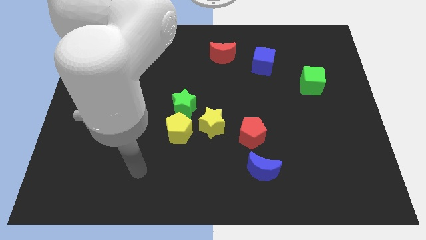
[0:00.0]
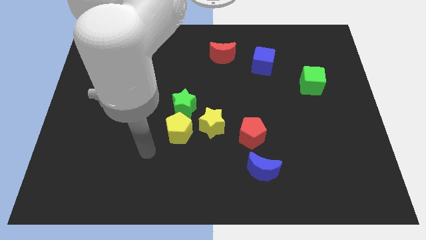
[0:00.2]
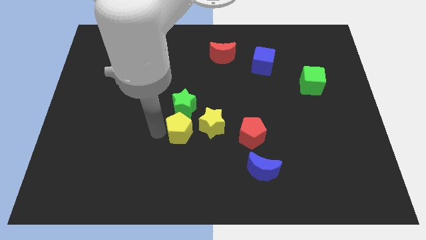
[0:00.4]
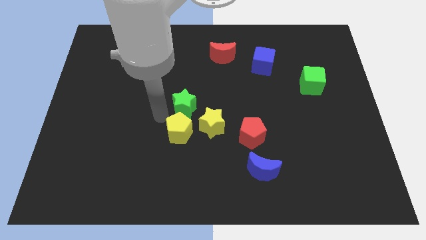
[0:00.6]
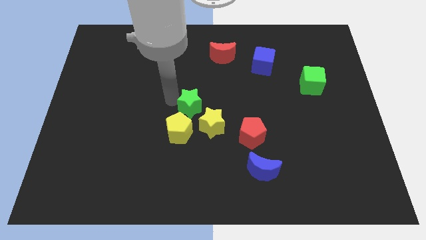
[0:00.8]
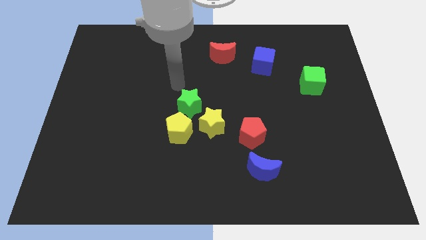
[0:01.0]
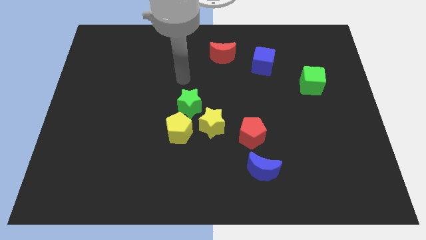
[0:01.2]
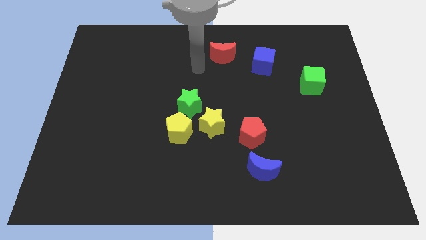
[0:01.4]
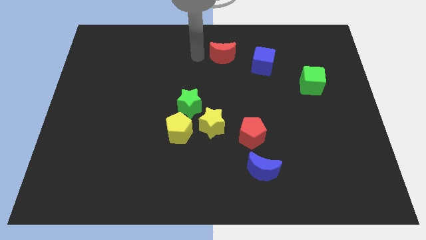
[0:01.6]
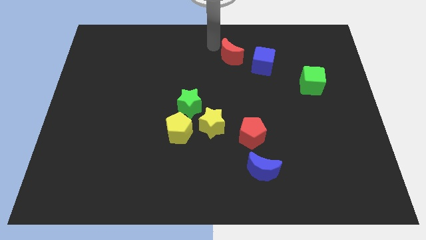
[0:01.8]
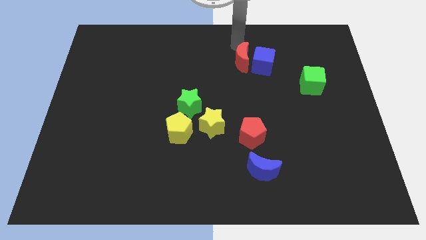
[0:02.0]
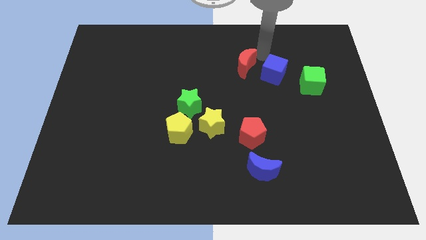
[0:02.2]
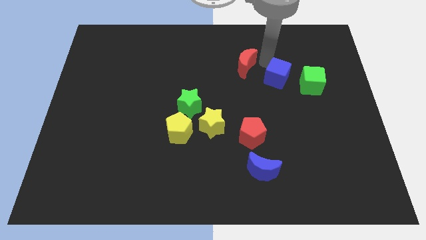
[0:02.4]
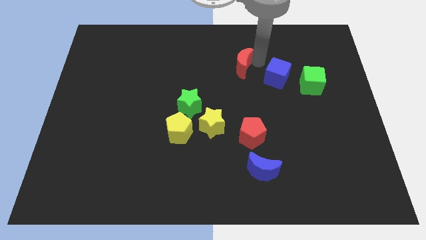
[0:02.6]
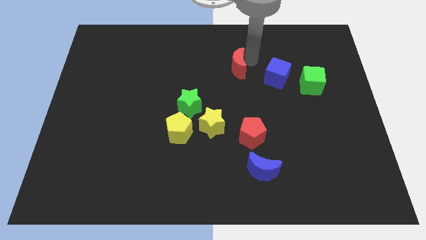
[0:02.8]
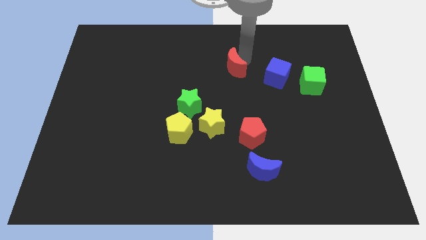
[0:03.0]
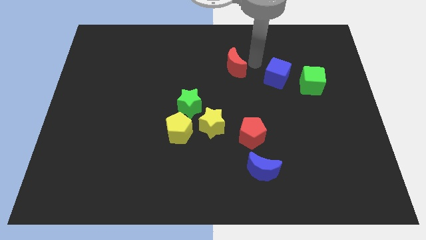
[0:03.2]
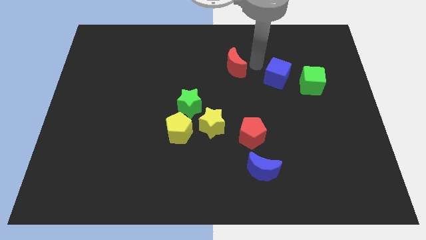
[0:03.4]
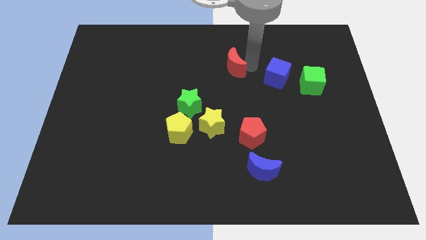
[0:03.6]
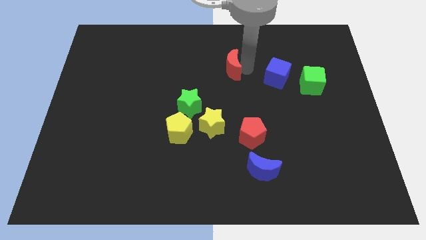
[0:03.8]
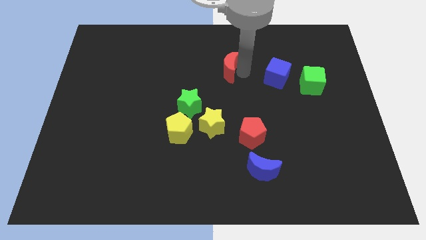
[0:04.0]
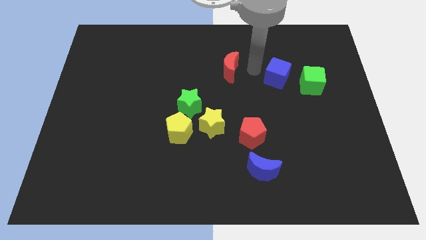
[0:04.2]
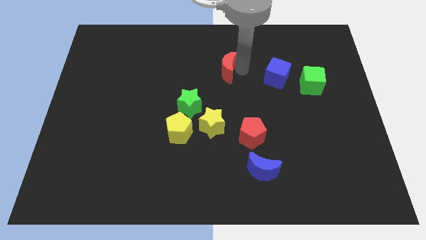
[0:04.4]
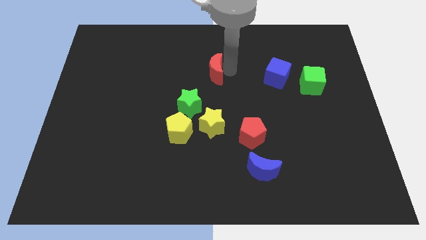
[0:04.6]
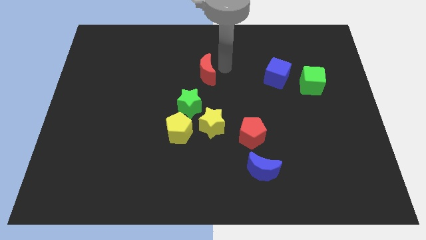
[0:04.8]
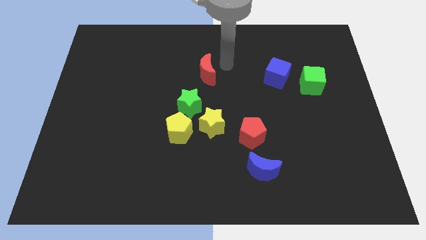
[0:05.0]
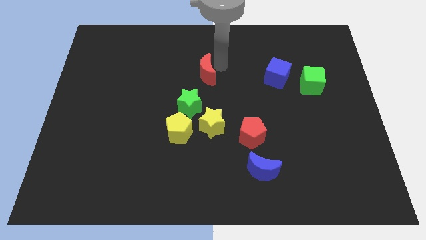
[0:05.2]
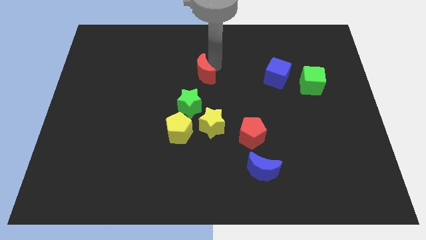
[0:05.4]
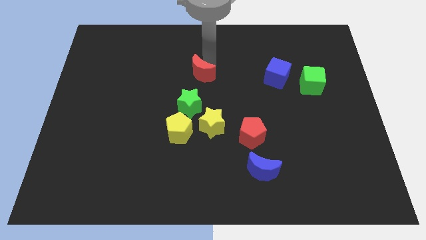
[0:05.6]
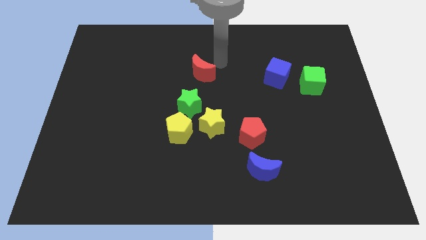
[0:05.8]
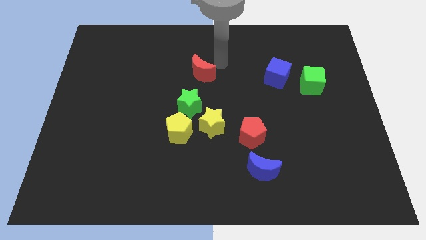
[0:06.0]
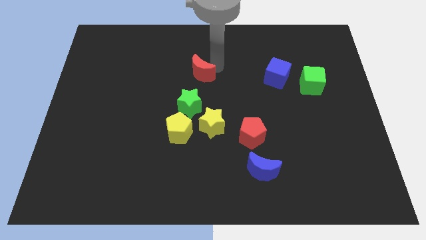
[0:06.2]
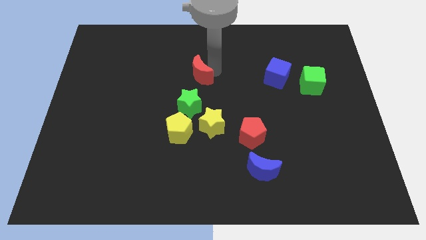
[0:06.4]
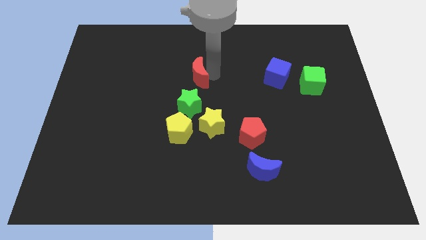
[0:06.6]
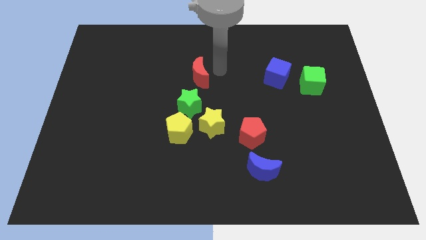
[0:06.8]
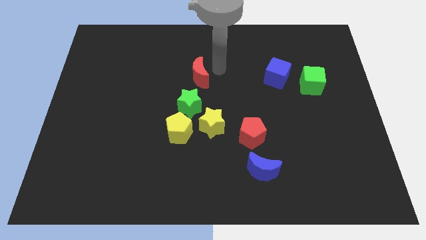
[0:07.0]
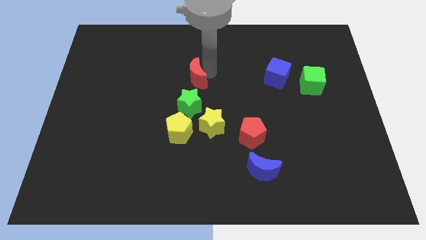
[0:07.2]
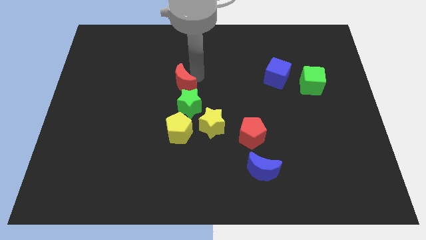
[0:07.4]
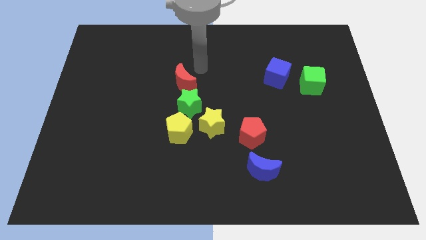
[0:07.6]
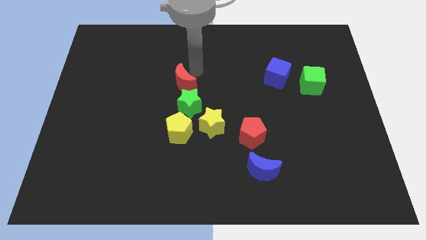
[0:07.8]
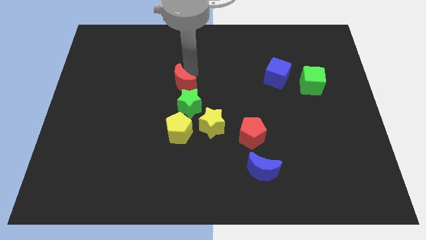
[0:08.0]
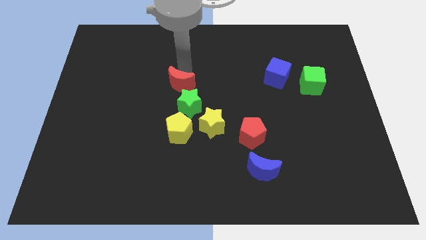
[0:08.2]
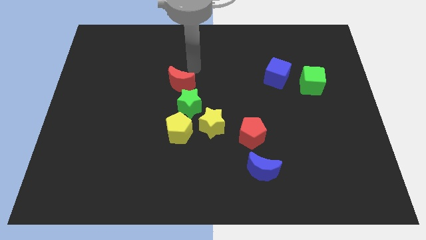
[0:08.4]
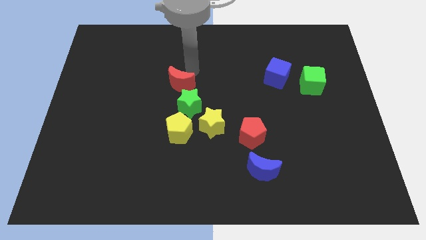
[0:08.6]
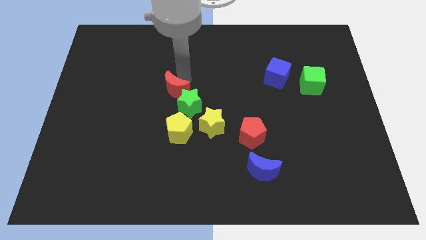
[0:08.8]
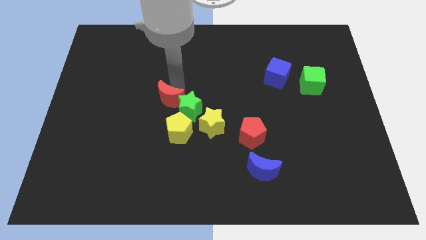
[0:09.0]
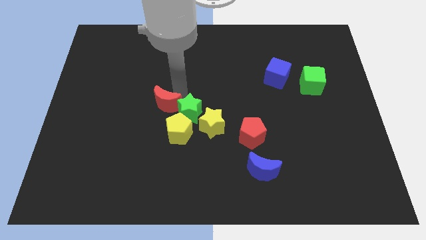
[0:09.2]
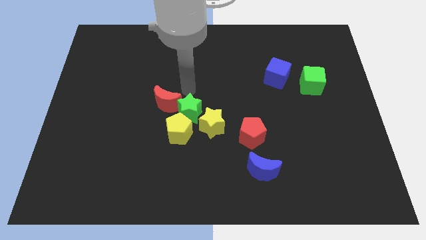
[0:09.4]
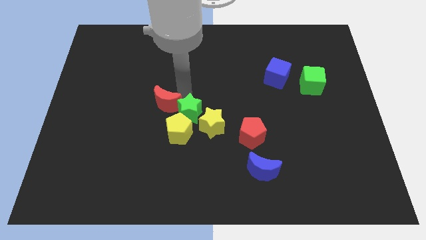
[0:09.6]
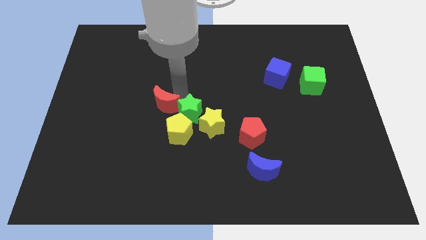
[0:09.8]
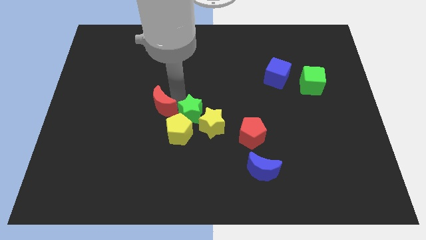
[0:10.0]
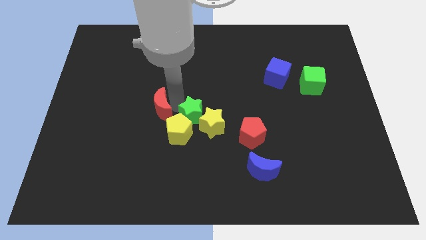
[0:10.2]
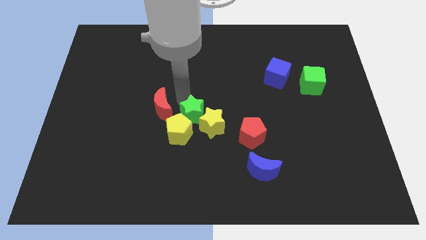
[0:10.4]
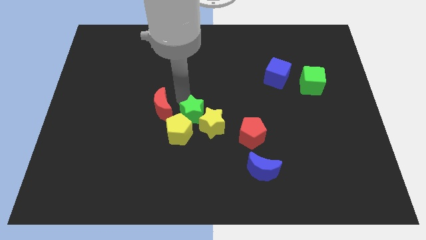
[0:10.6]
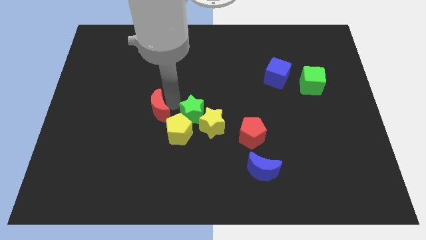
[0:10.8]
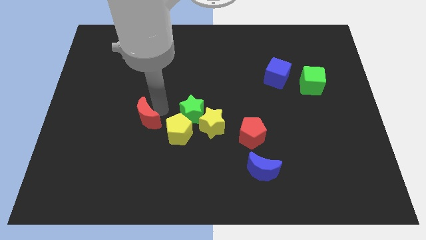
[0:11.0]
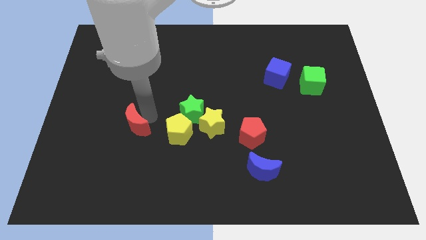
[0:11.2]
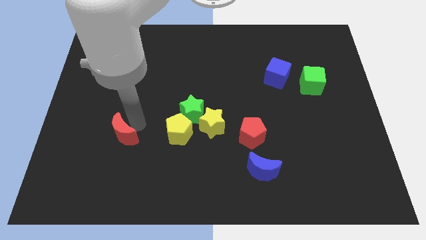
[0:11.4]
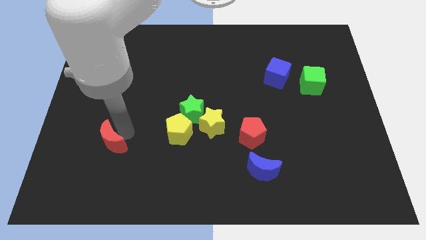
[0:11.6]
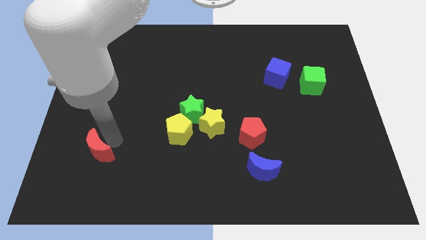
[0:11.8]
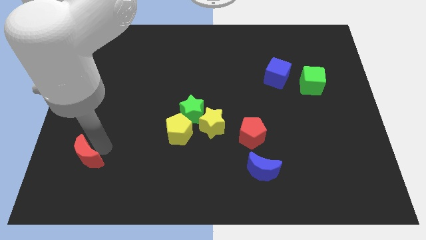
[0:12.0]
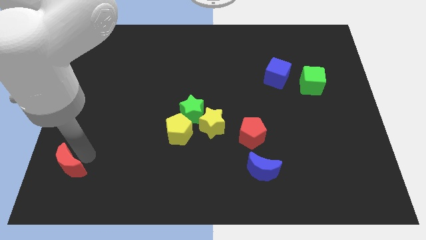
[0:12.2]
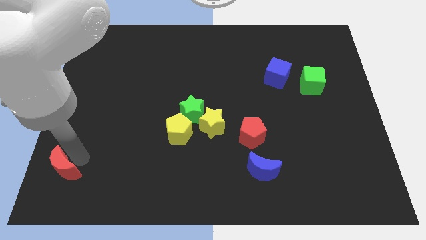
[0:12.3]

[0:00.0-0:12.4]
put the red moon to the lower left corner

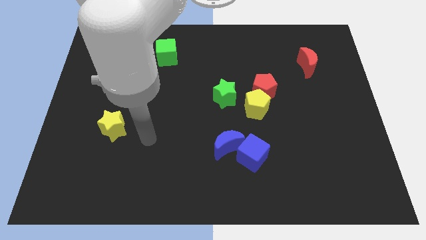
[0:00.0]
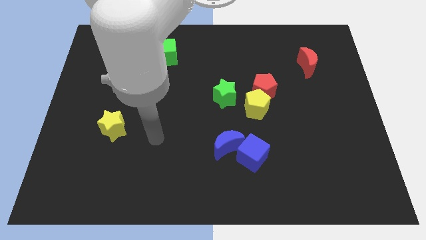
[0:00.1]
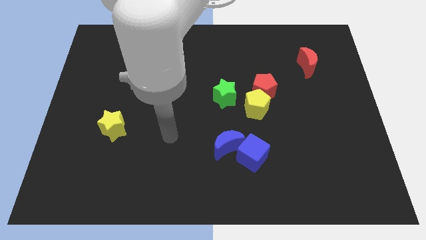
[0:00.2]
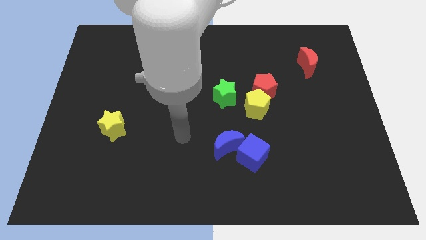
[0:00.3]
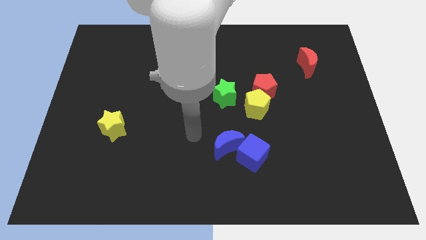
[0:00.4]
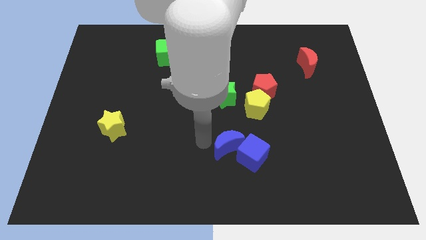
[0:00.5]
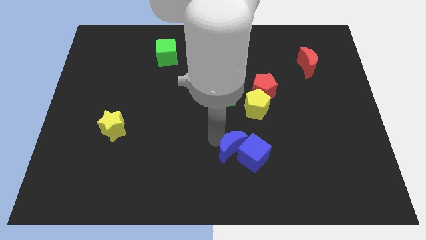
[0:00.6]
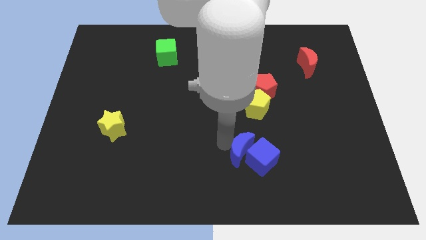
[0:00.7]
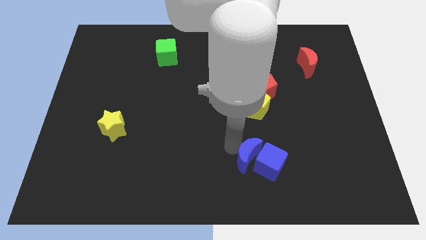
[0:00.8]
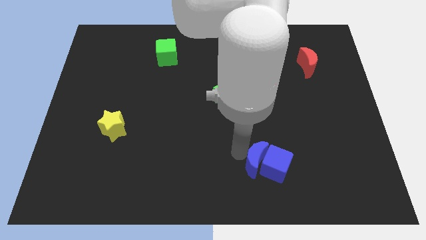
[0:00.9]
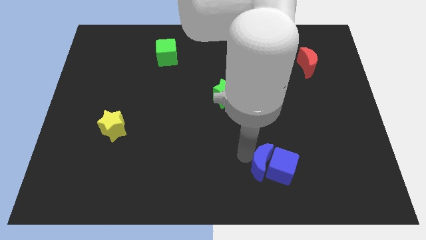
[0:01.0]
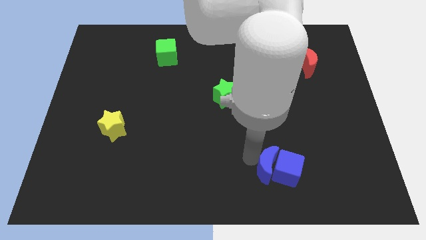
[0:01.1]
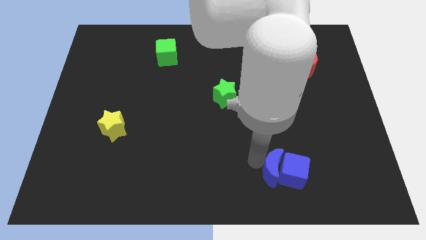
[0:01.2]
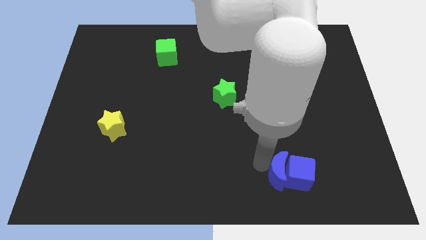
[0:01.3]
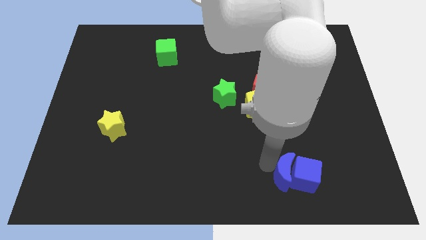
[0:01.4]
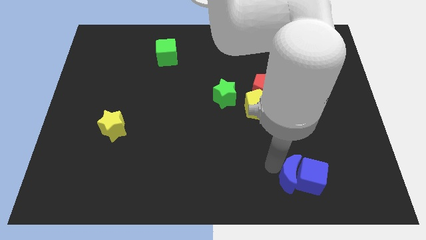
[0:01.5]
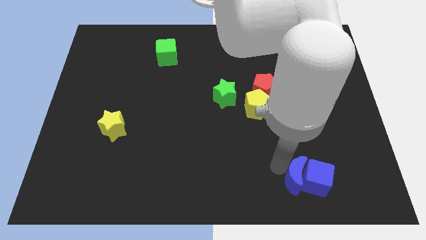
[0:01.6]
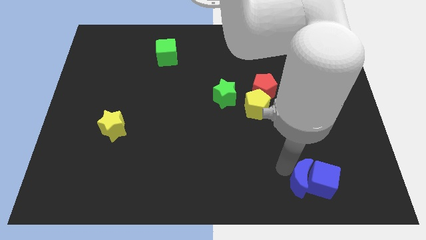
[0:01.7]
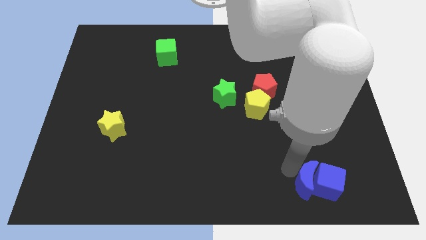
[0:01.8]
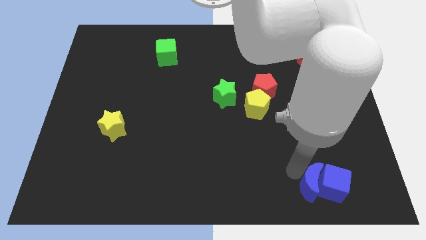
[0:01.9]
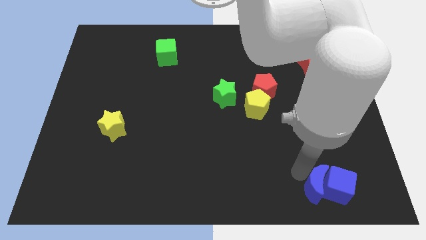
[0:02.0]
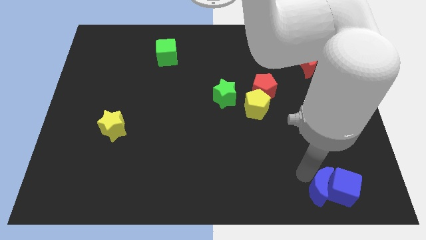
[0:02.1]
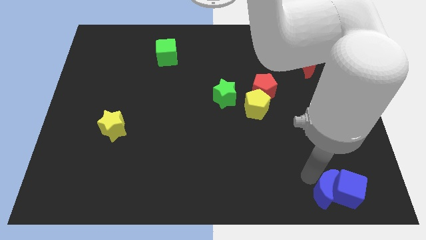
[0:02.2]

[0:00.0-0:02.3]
push the blue cube to the lower right corner
